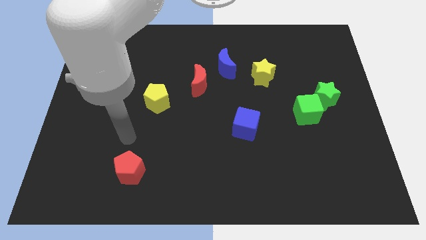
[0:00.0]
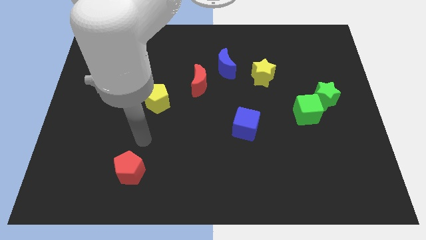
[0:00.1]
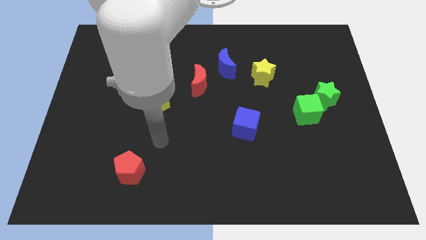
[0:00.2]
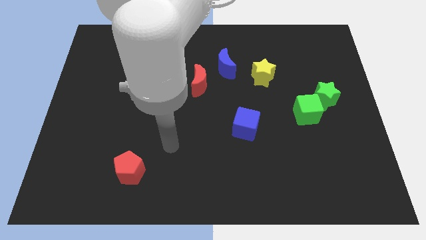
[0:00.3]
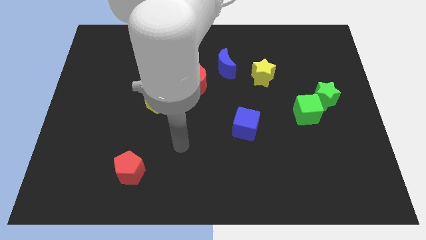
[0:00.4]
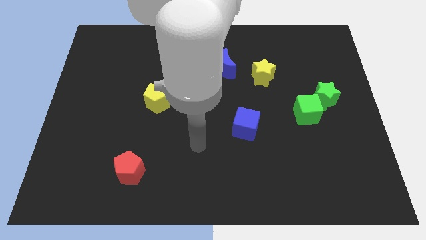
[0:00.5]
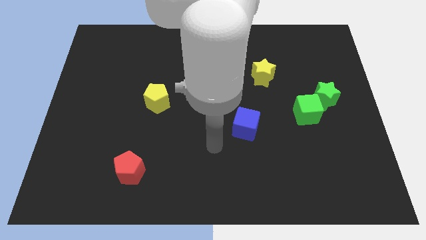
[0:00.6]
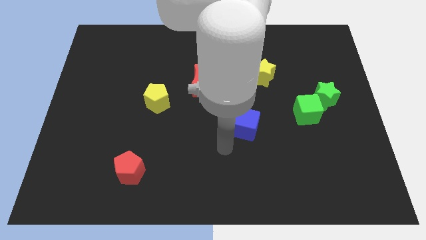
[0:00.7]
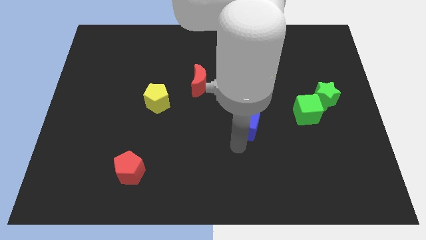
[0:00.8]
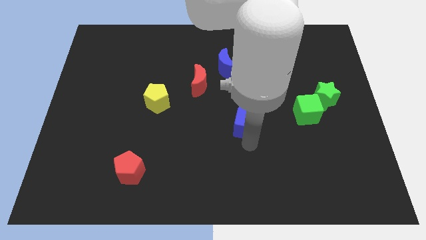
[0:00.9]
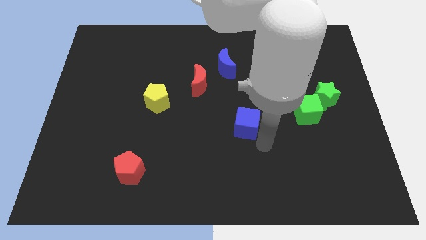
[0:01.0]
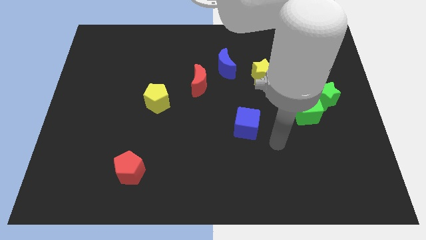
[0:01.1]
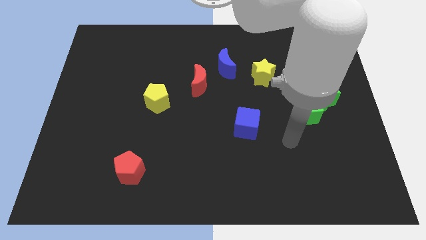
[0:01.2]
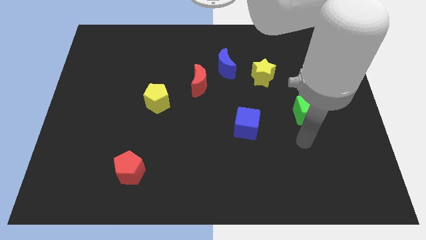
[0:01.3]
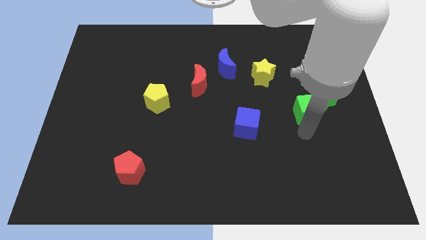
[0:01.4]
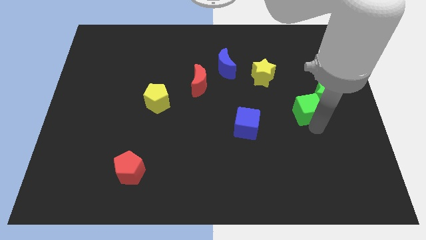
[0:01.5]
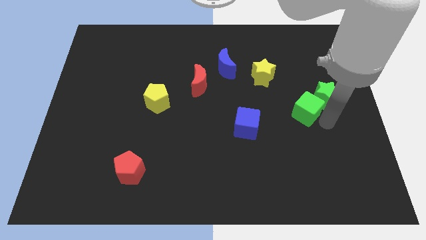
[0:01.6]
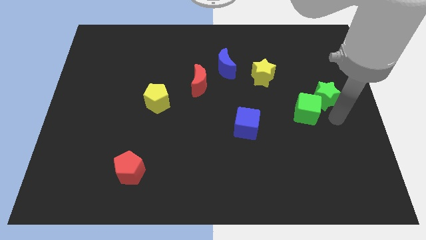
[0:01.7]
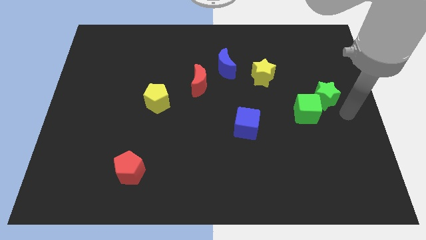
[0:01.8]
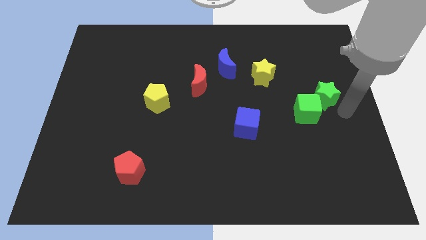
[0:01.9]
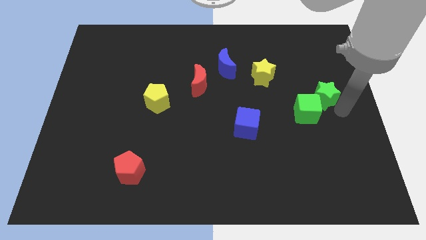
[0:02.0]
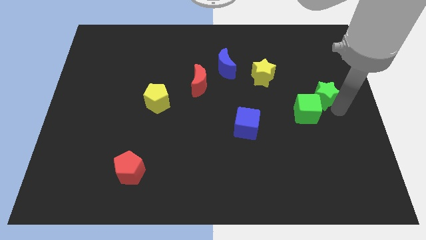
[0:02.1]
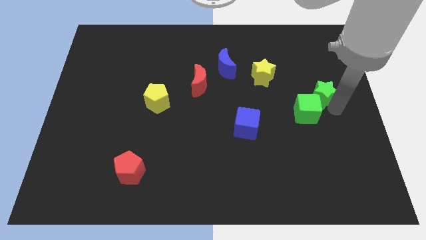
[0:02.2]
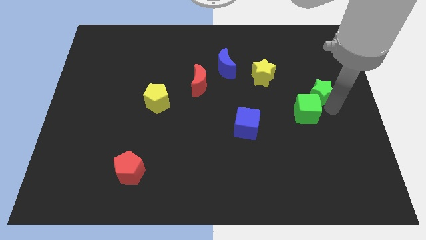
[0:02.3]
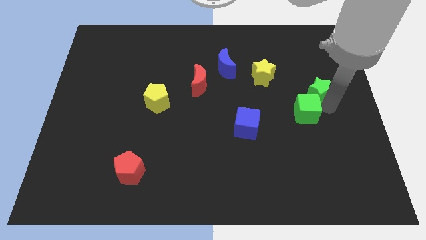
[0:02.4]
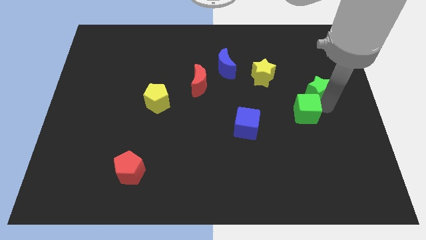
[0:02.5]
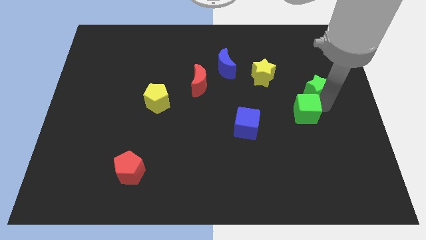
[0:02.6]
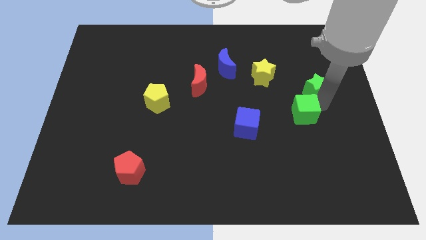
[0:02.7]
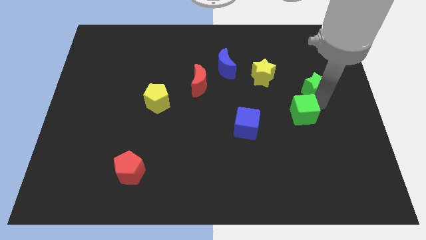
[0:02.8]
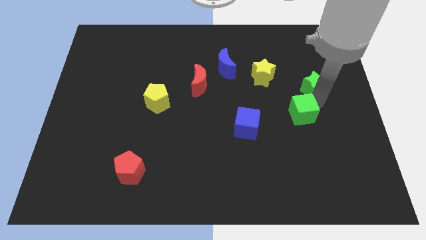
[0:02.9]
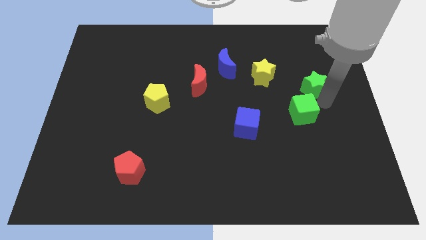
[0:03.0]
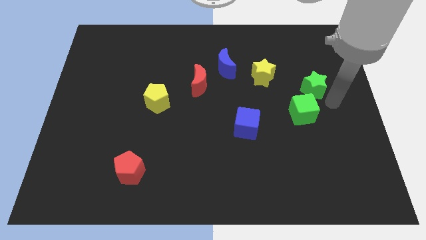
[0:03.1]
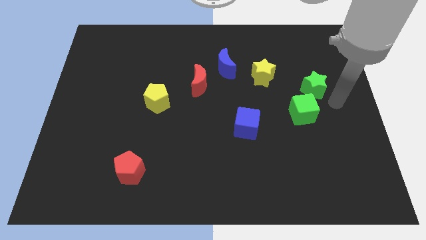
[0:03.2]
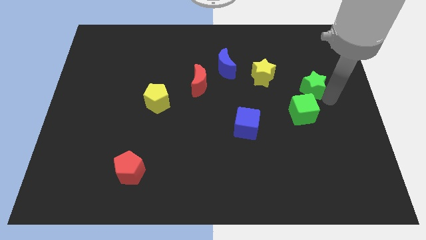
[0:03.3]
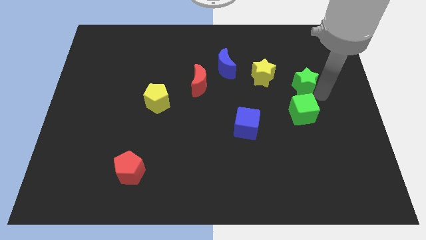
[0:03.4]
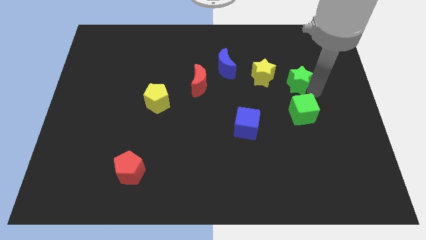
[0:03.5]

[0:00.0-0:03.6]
push the green star diagonally up and left a little

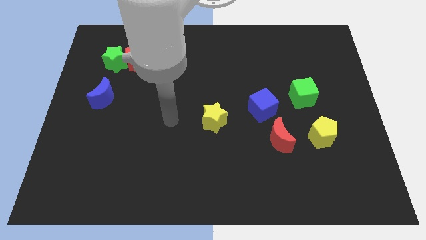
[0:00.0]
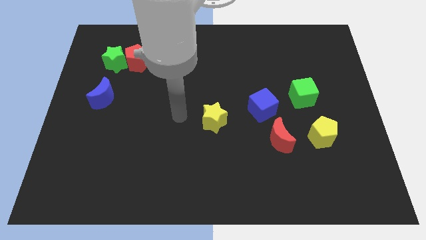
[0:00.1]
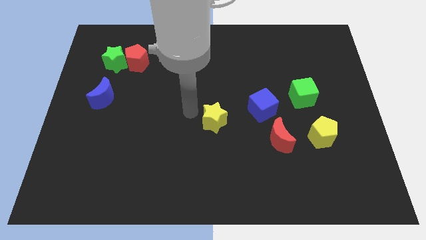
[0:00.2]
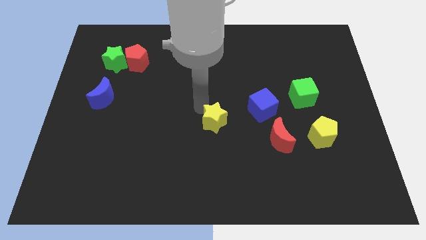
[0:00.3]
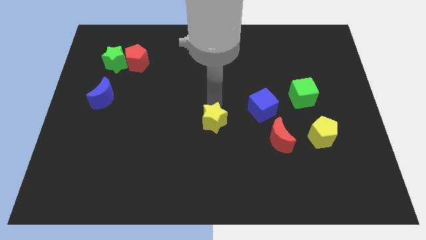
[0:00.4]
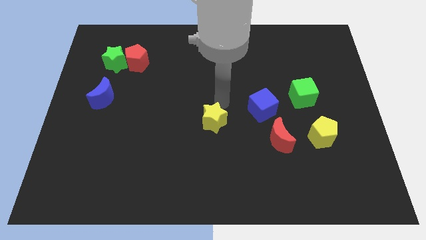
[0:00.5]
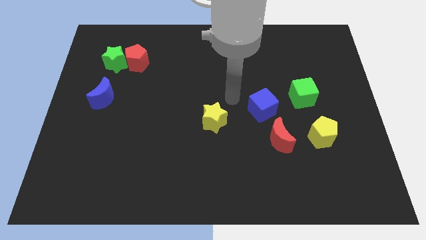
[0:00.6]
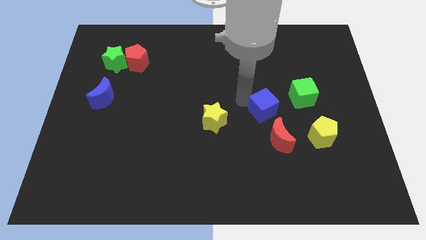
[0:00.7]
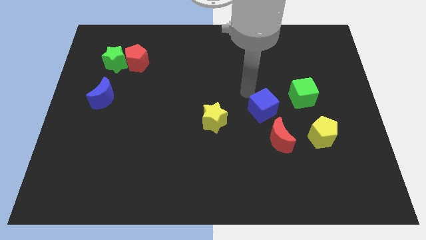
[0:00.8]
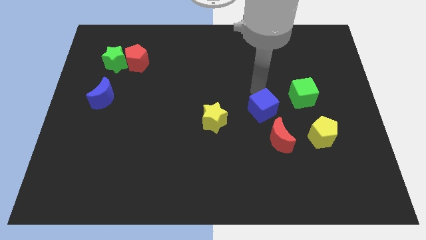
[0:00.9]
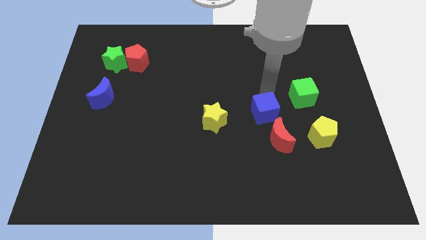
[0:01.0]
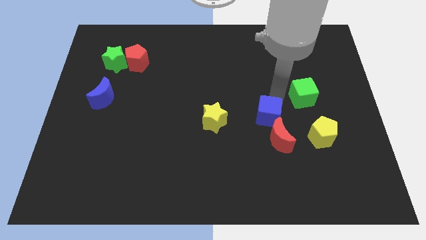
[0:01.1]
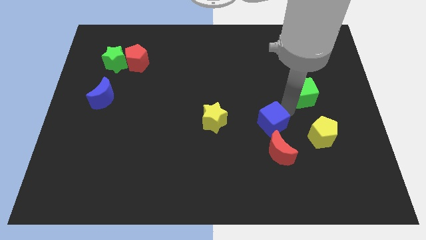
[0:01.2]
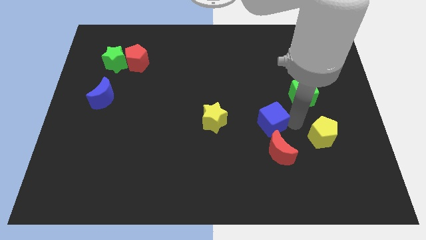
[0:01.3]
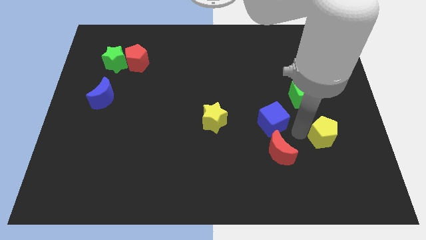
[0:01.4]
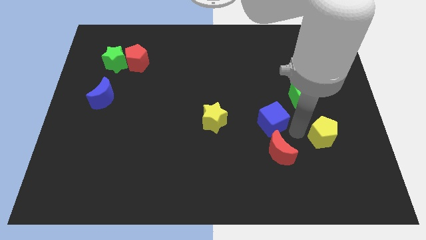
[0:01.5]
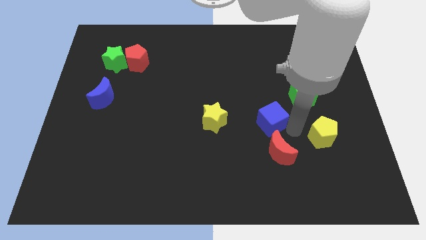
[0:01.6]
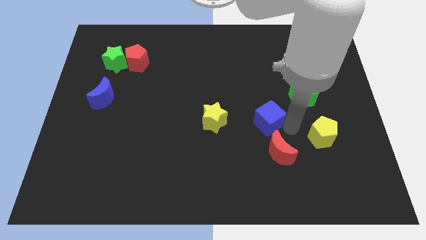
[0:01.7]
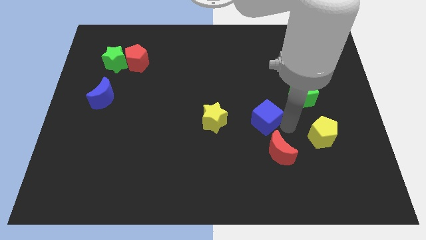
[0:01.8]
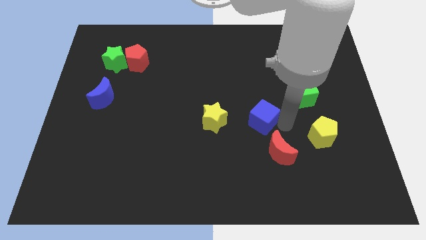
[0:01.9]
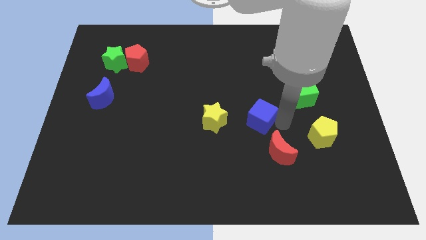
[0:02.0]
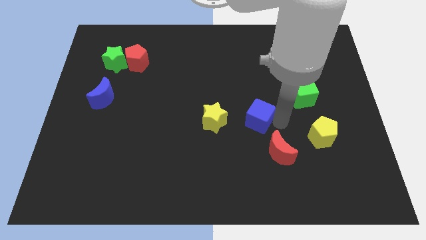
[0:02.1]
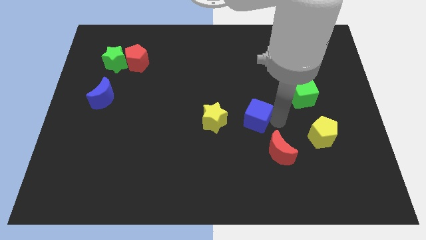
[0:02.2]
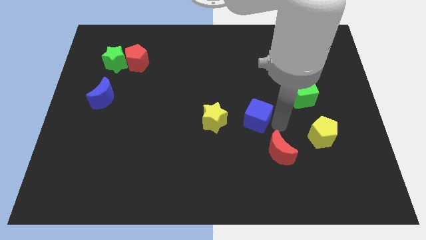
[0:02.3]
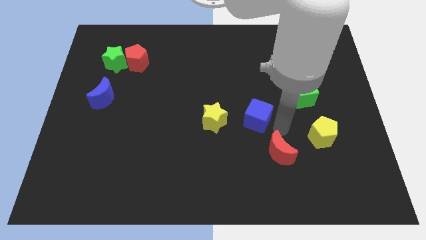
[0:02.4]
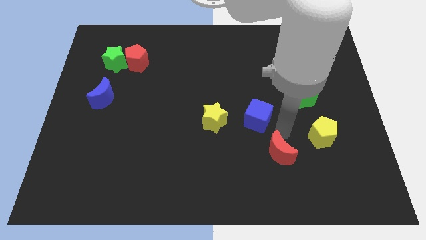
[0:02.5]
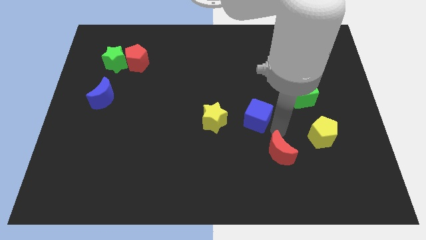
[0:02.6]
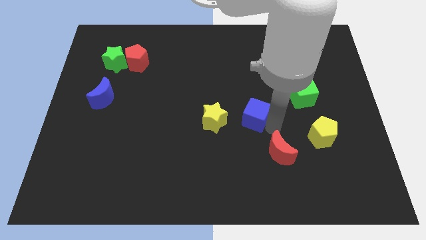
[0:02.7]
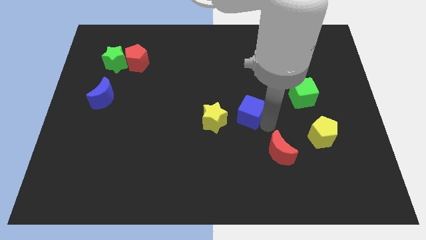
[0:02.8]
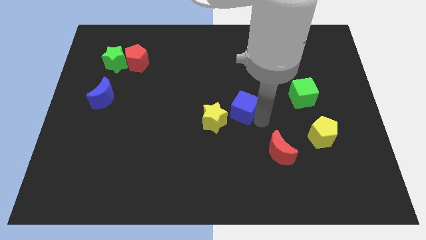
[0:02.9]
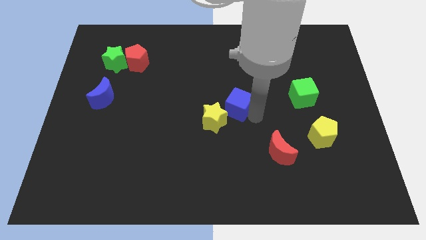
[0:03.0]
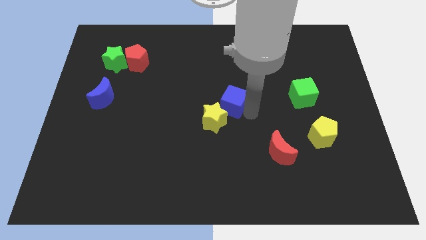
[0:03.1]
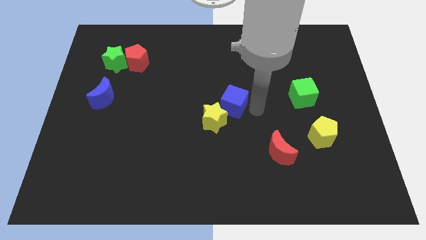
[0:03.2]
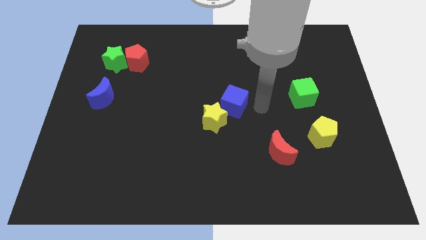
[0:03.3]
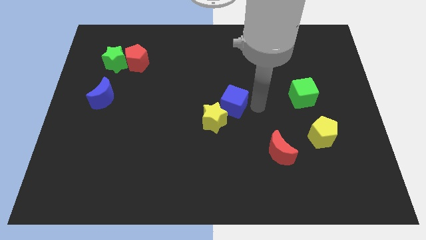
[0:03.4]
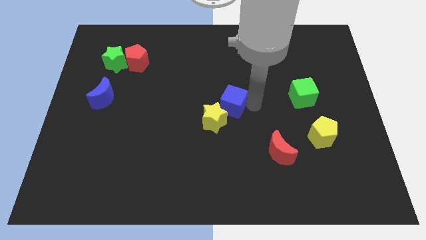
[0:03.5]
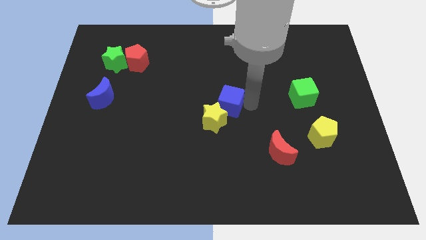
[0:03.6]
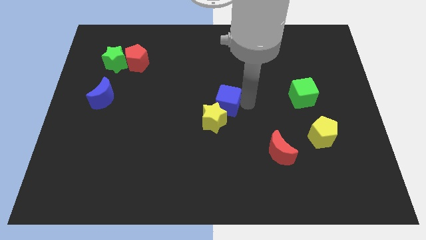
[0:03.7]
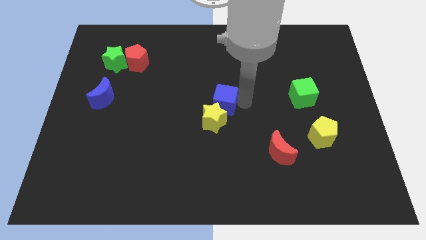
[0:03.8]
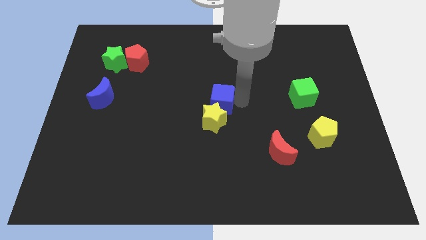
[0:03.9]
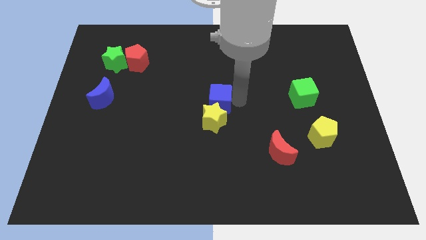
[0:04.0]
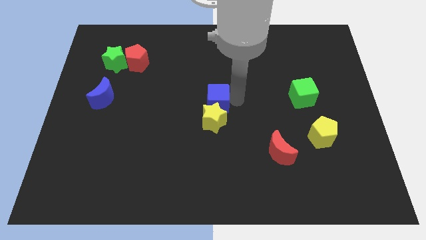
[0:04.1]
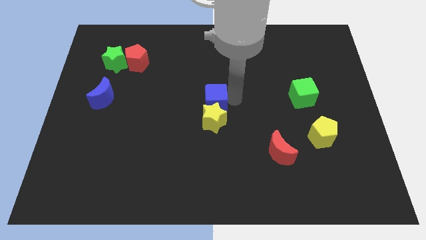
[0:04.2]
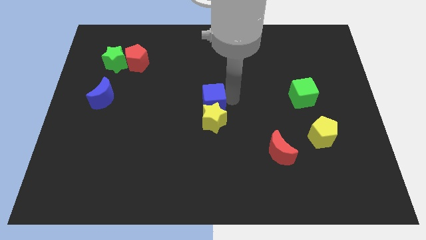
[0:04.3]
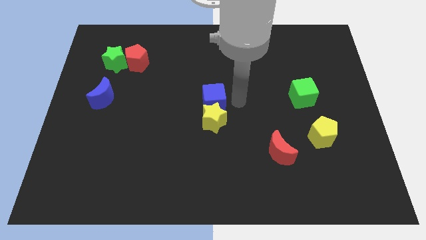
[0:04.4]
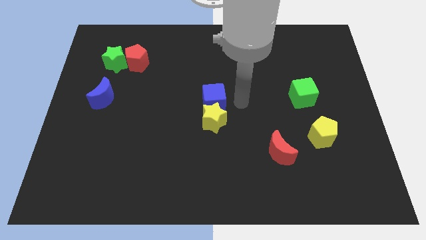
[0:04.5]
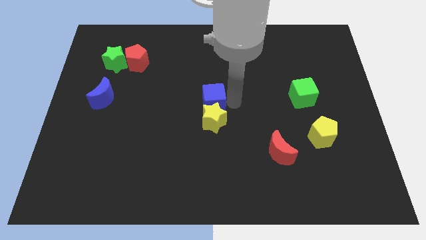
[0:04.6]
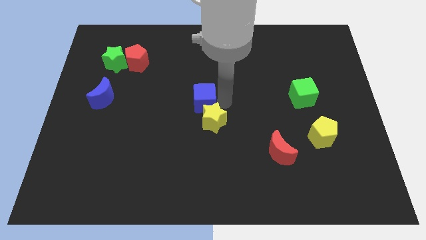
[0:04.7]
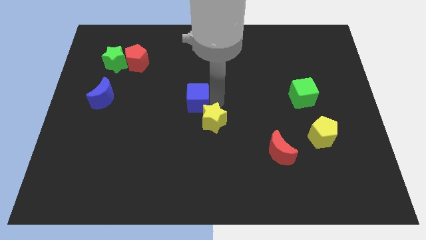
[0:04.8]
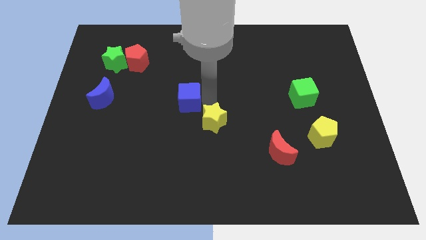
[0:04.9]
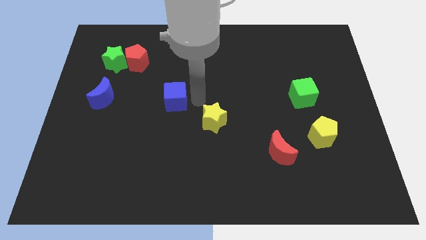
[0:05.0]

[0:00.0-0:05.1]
push the blue cube to the left
